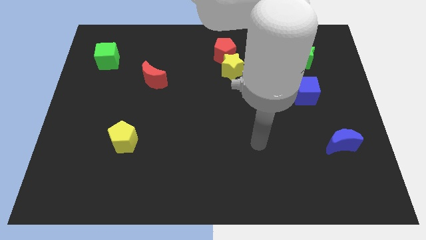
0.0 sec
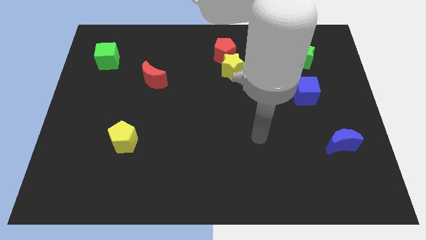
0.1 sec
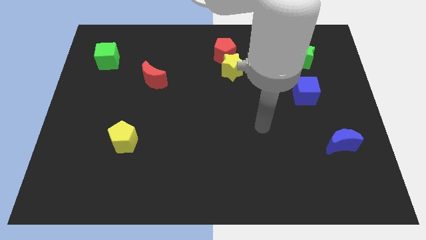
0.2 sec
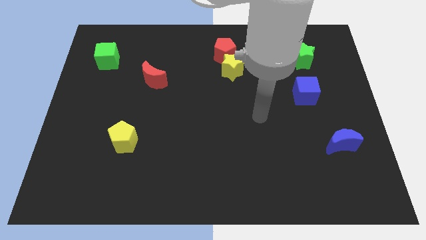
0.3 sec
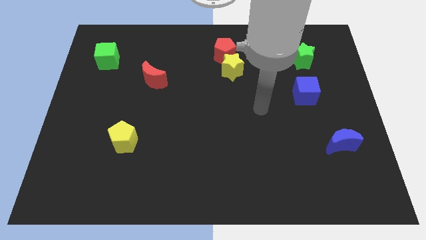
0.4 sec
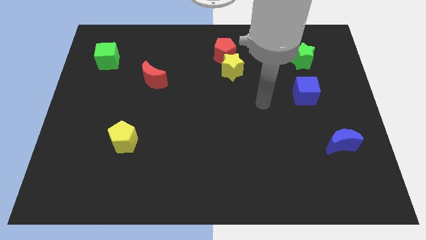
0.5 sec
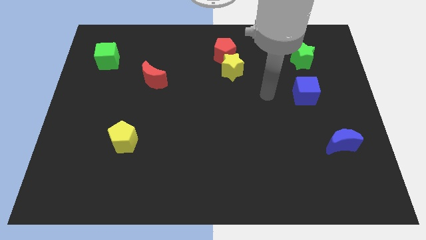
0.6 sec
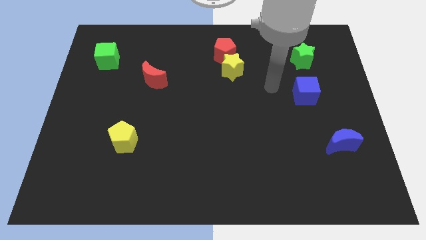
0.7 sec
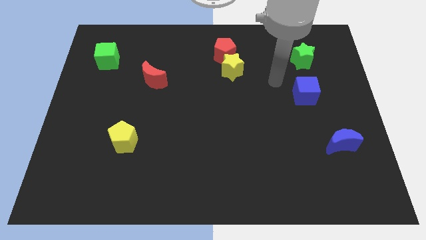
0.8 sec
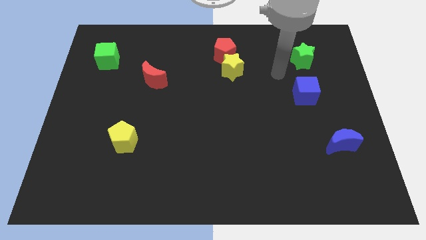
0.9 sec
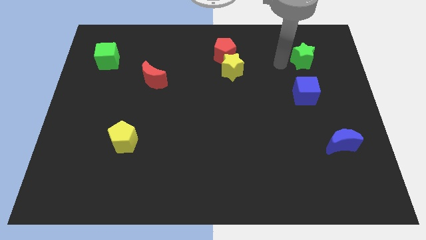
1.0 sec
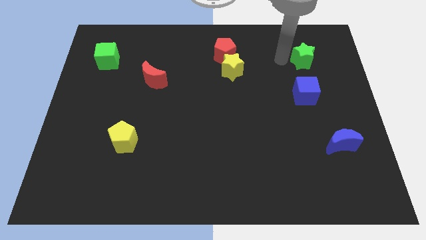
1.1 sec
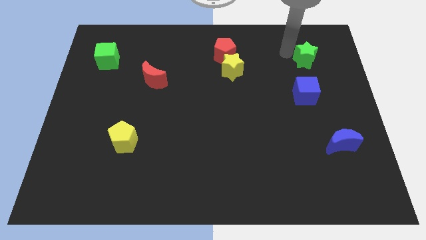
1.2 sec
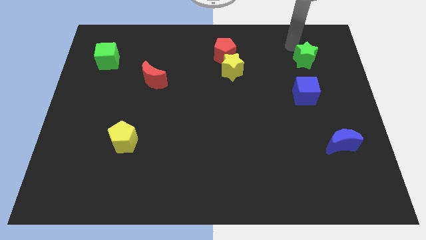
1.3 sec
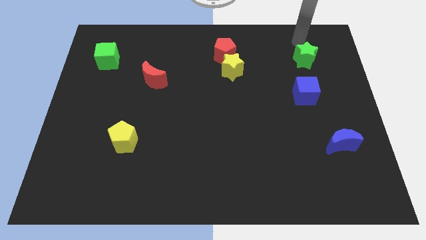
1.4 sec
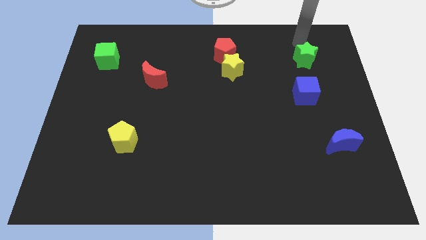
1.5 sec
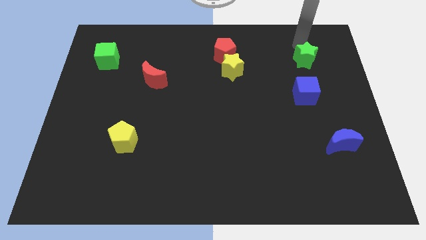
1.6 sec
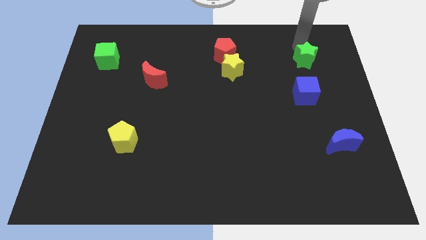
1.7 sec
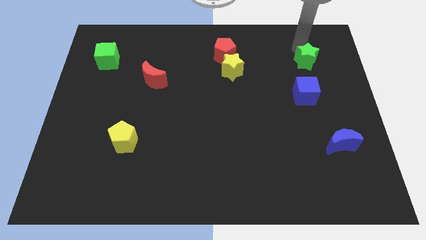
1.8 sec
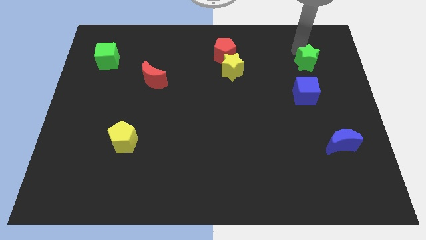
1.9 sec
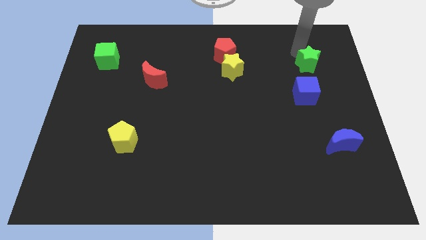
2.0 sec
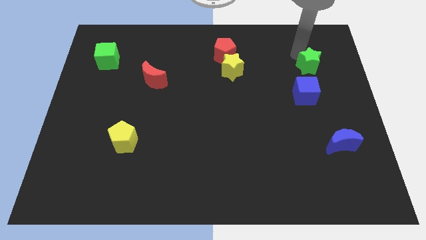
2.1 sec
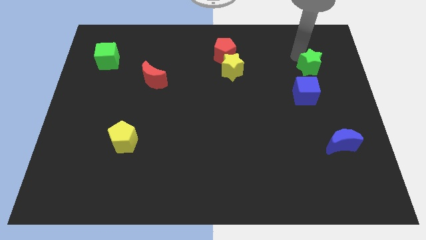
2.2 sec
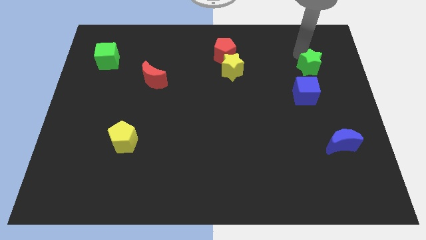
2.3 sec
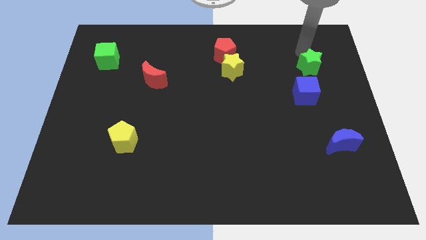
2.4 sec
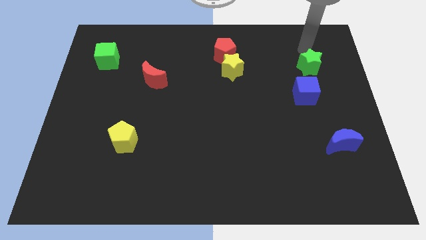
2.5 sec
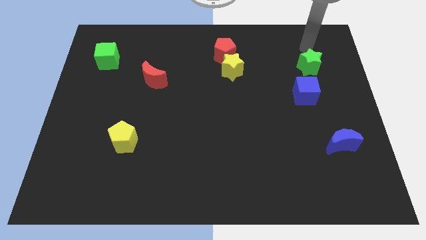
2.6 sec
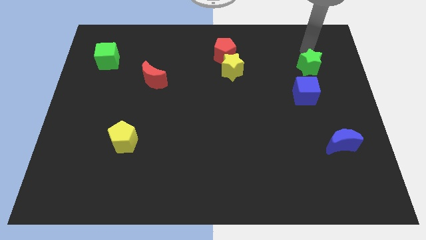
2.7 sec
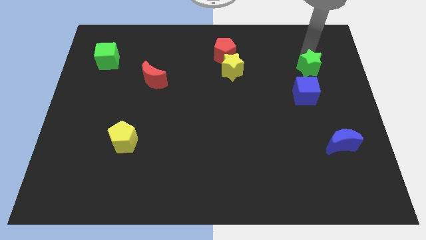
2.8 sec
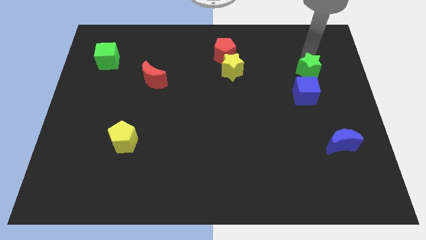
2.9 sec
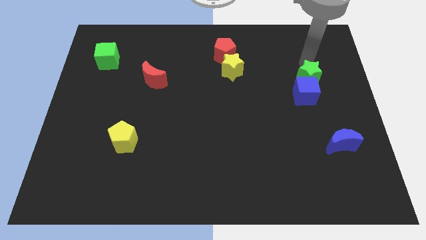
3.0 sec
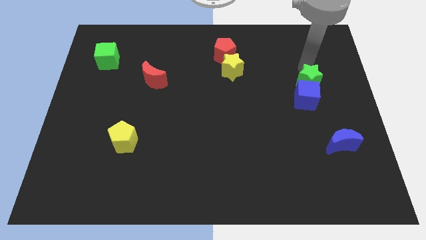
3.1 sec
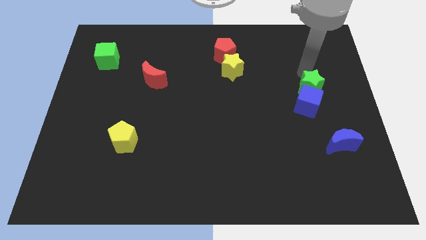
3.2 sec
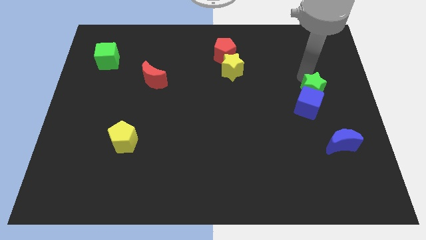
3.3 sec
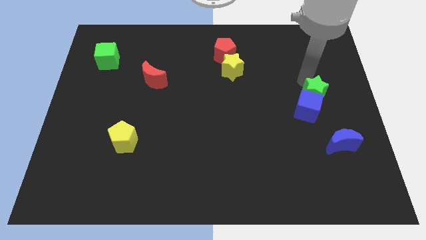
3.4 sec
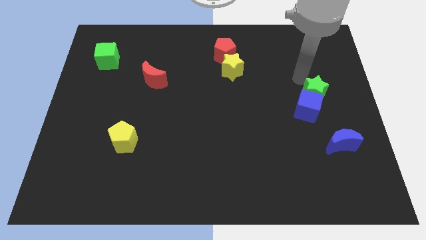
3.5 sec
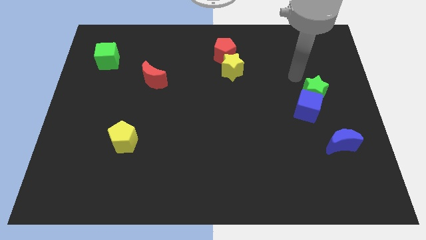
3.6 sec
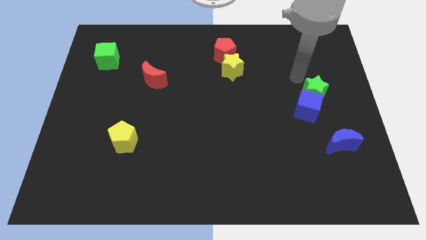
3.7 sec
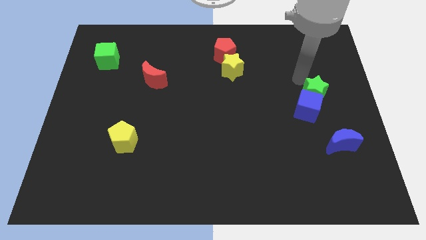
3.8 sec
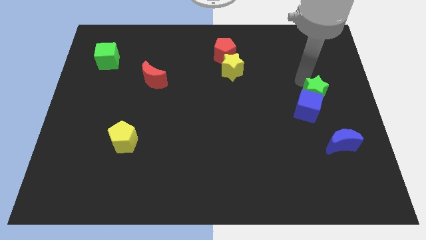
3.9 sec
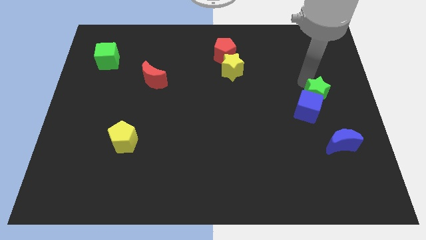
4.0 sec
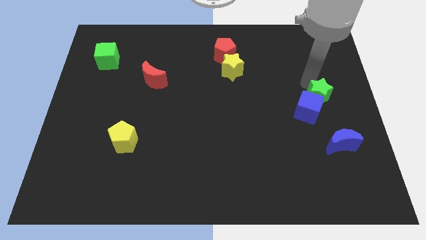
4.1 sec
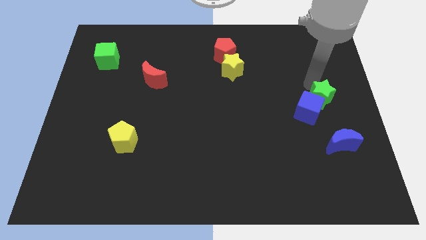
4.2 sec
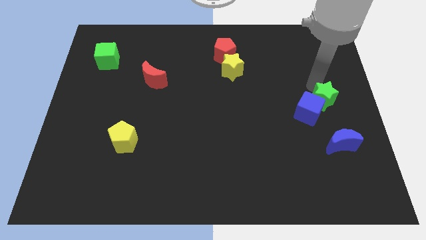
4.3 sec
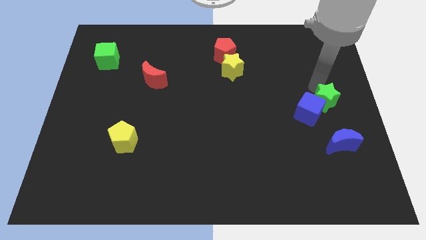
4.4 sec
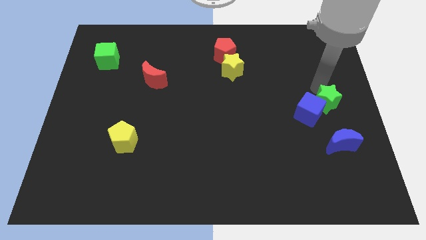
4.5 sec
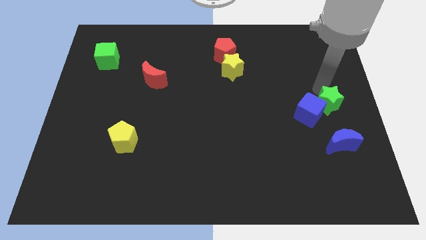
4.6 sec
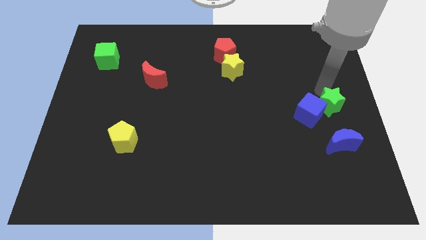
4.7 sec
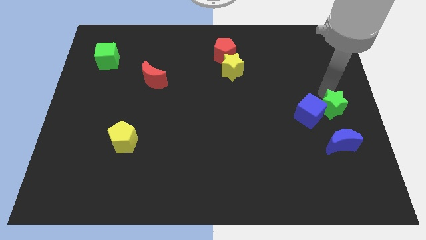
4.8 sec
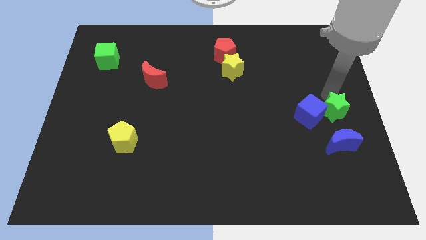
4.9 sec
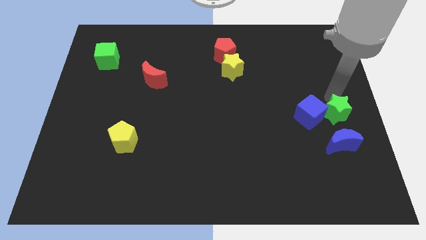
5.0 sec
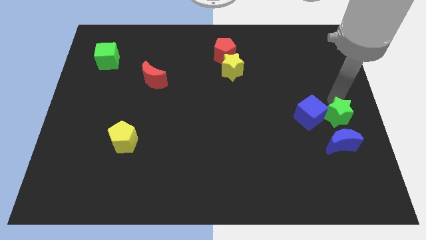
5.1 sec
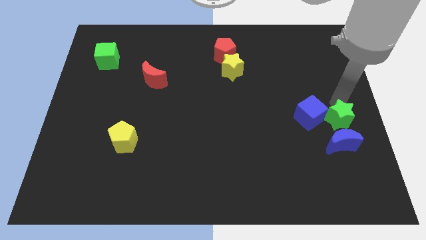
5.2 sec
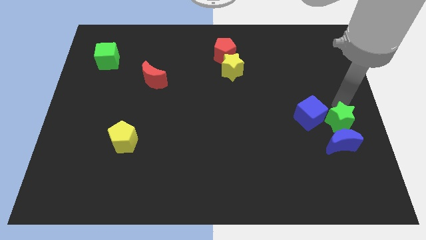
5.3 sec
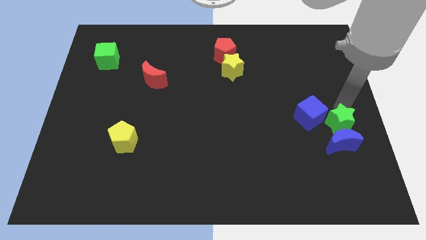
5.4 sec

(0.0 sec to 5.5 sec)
push the green star towards the blue moon

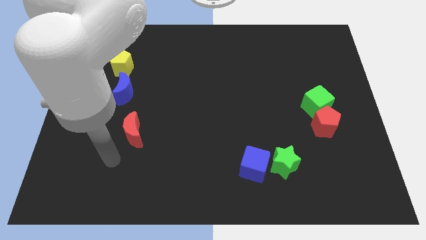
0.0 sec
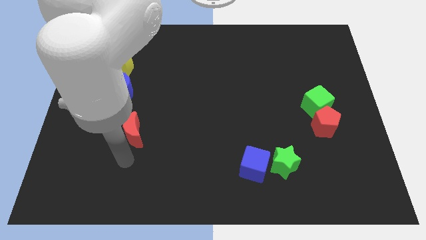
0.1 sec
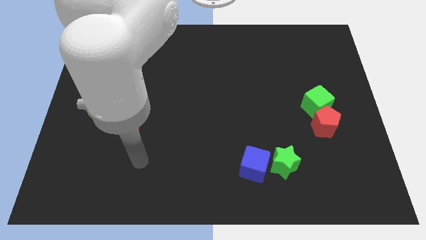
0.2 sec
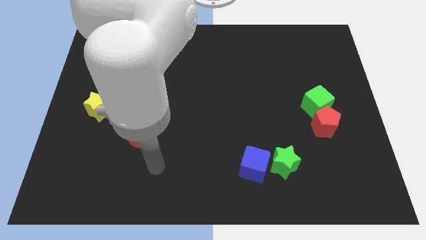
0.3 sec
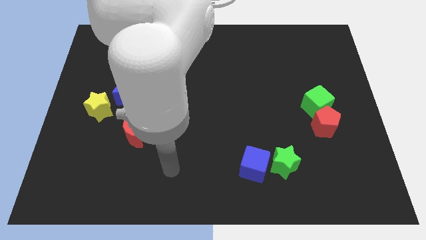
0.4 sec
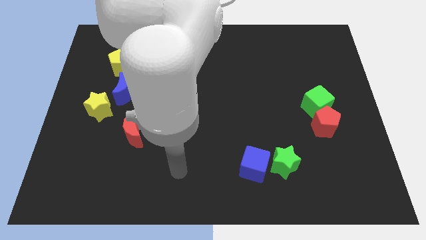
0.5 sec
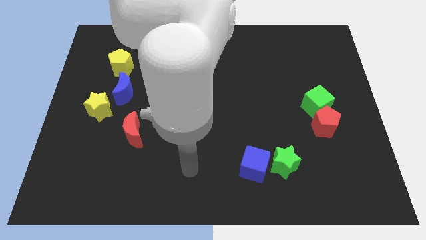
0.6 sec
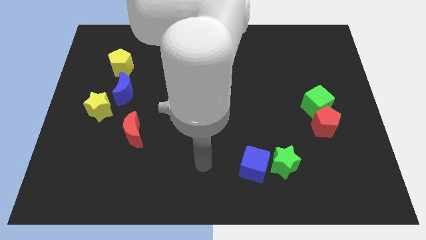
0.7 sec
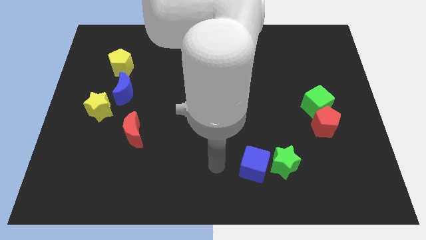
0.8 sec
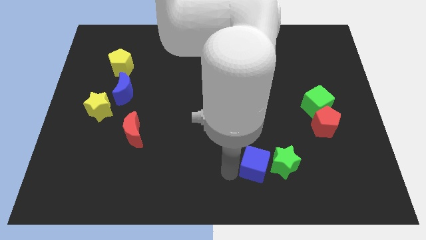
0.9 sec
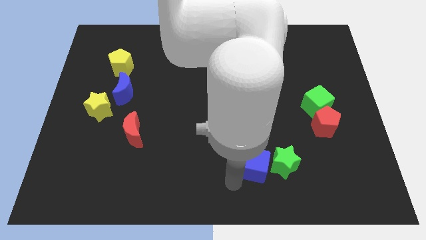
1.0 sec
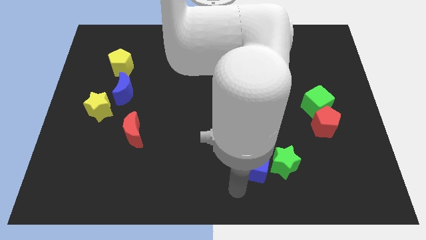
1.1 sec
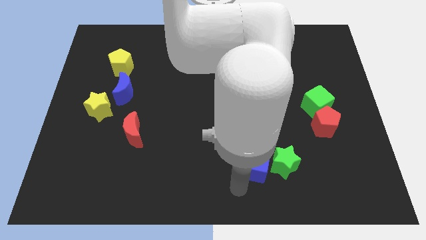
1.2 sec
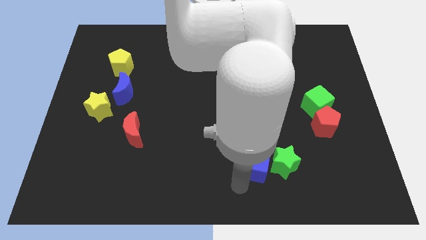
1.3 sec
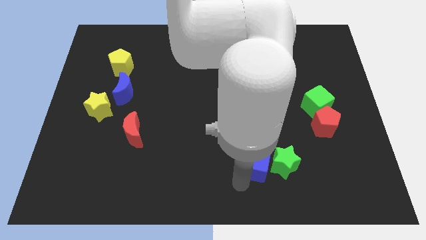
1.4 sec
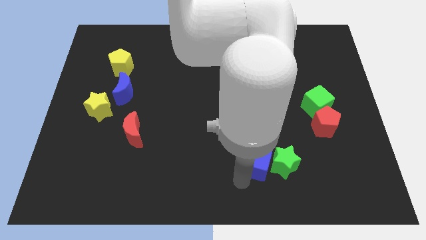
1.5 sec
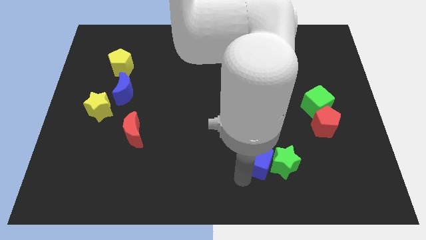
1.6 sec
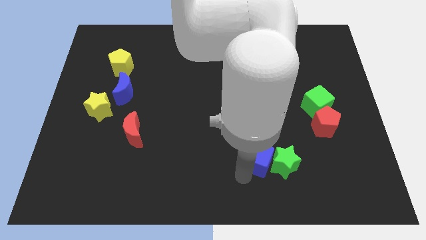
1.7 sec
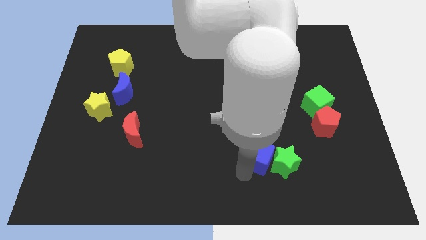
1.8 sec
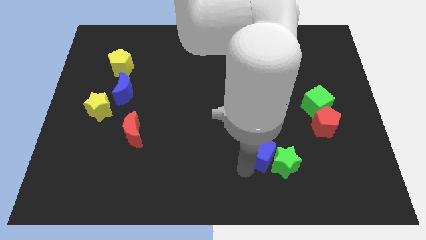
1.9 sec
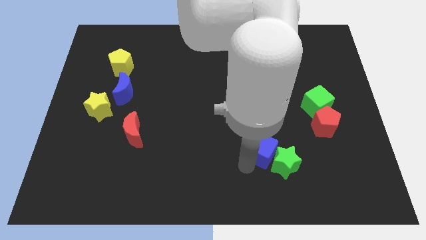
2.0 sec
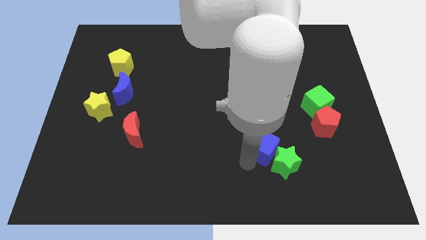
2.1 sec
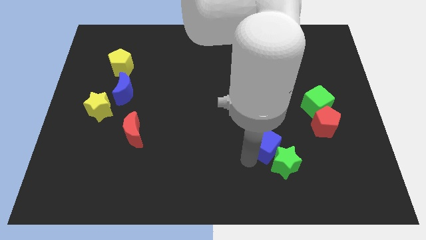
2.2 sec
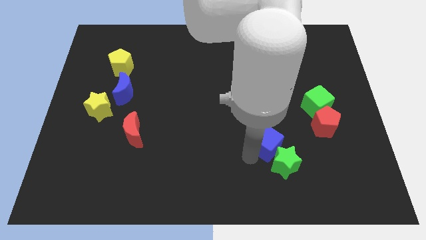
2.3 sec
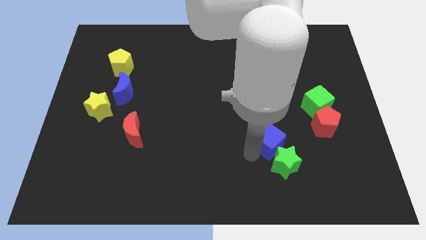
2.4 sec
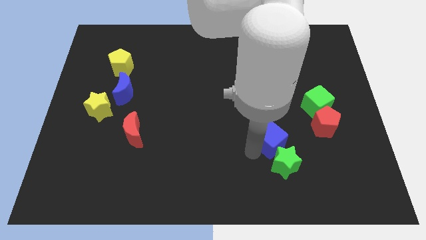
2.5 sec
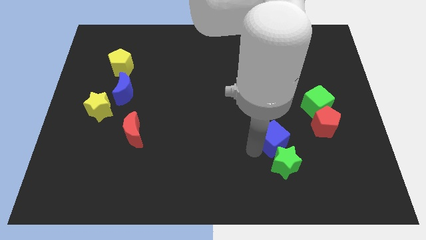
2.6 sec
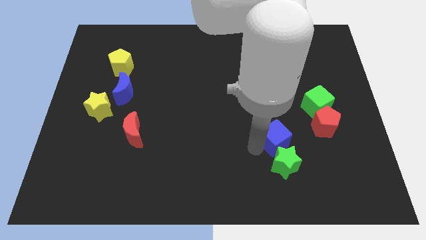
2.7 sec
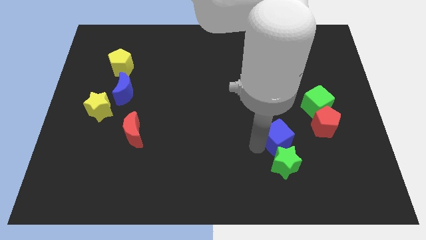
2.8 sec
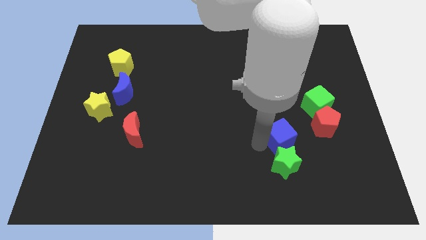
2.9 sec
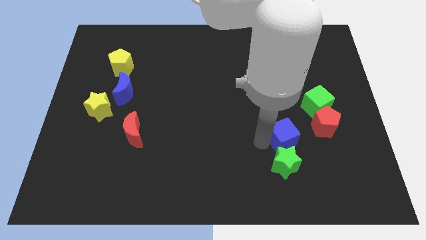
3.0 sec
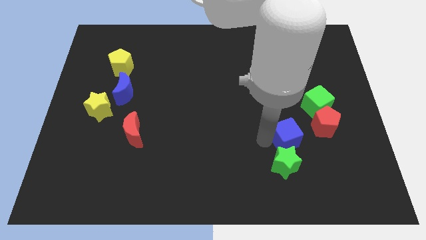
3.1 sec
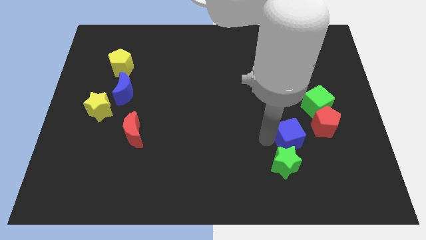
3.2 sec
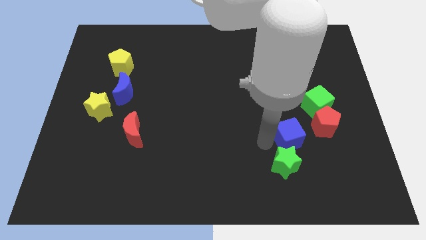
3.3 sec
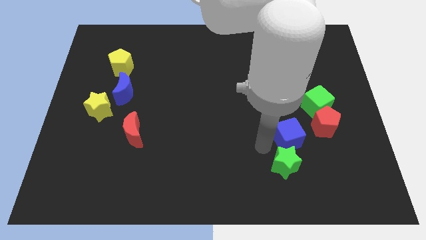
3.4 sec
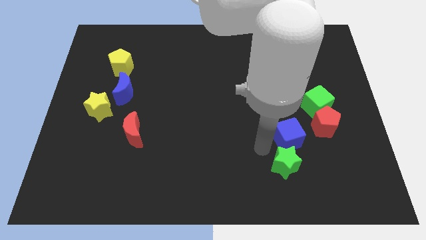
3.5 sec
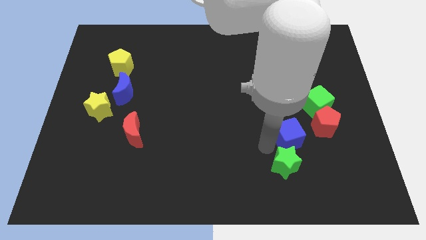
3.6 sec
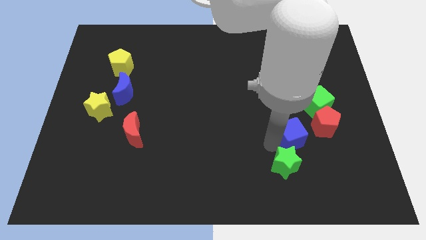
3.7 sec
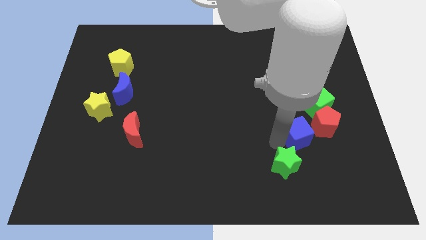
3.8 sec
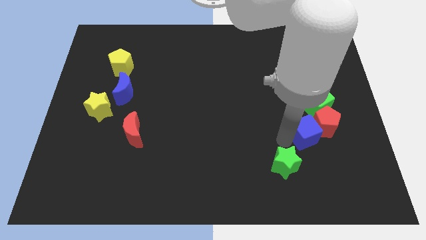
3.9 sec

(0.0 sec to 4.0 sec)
put the blue cube to the red pentagon
